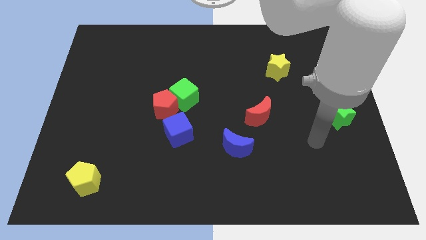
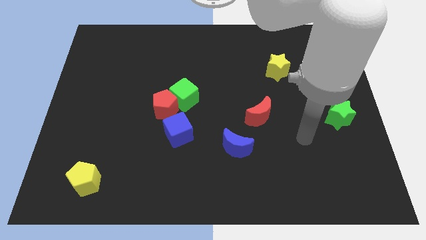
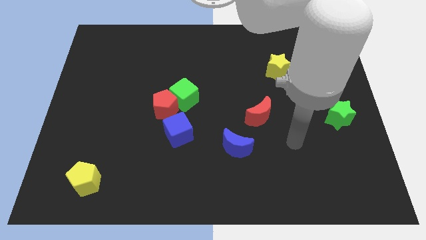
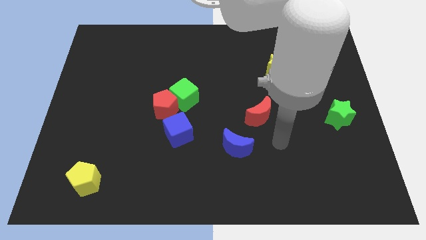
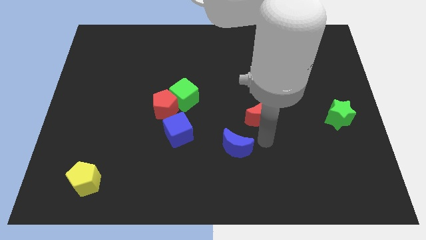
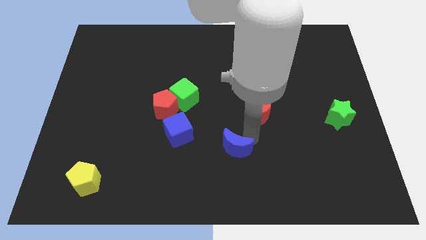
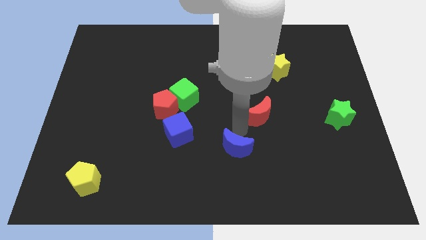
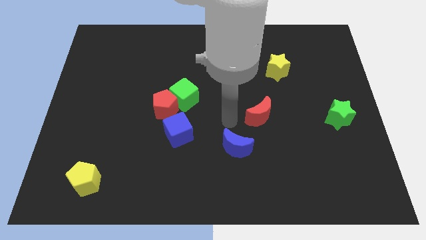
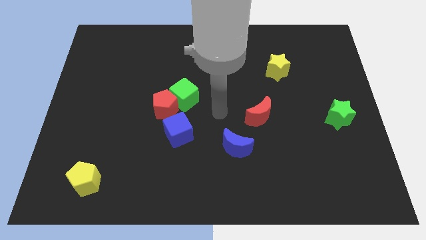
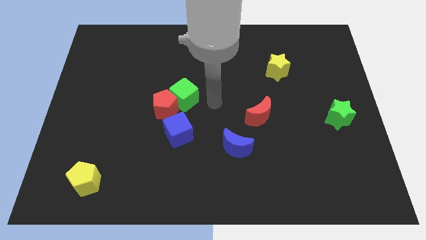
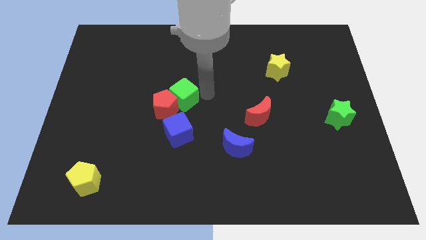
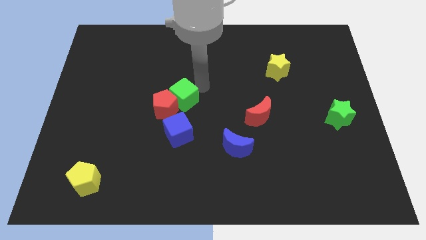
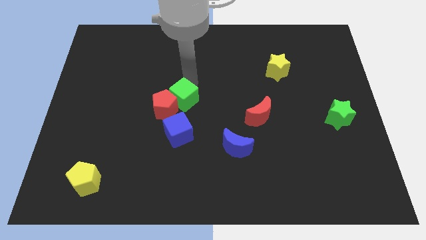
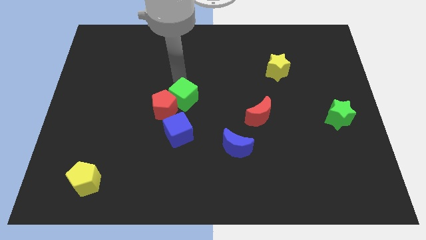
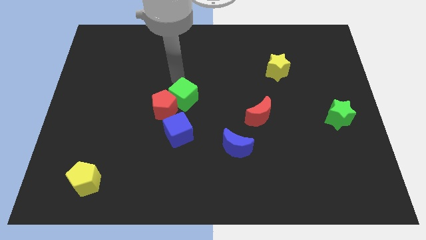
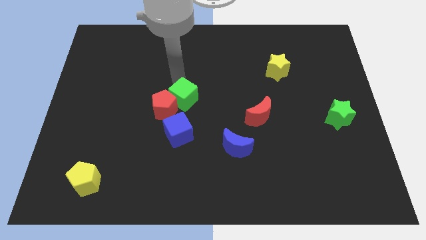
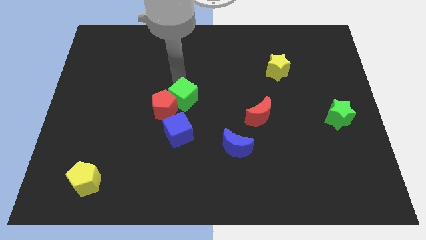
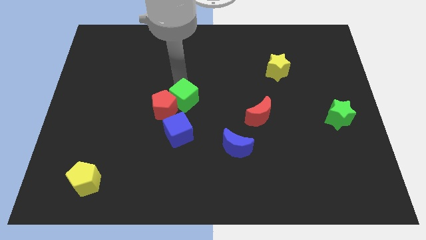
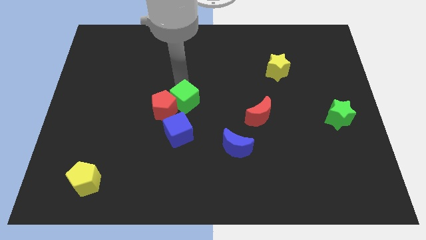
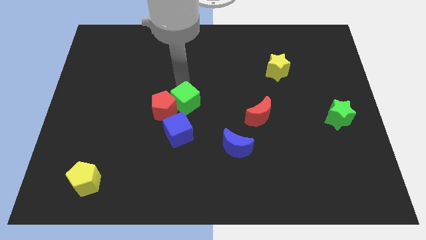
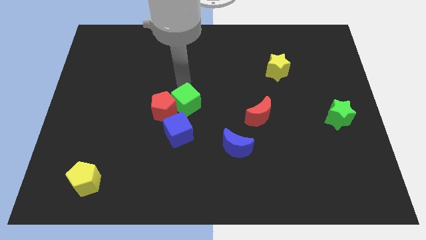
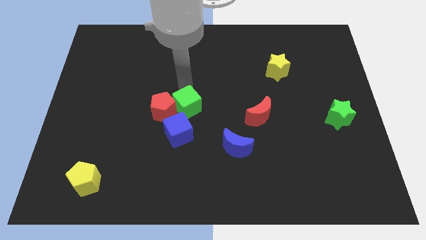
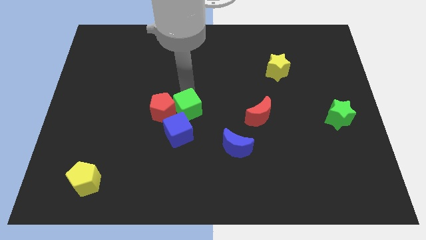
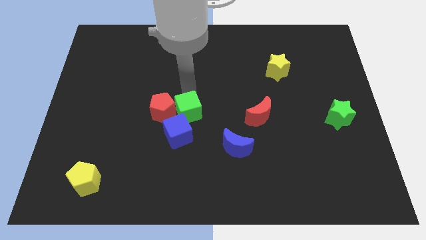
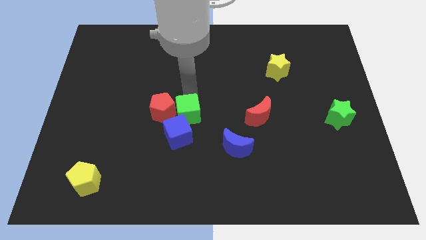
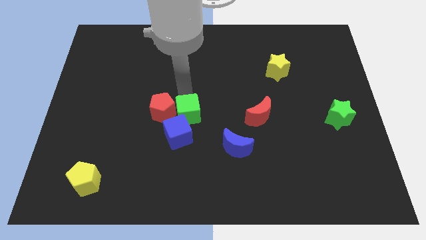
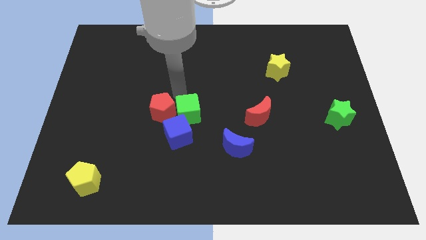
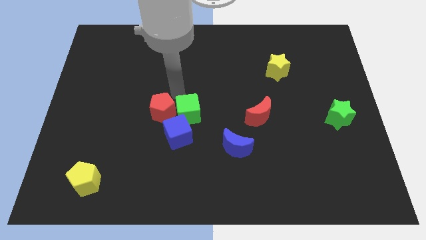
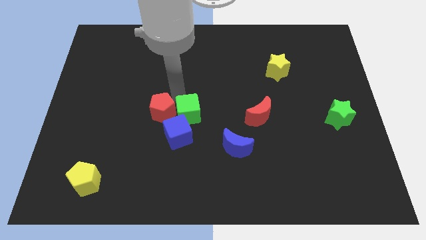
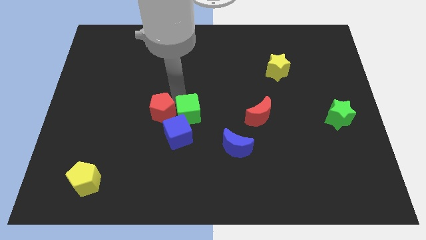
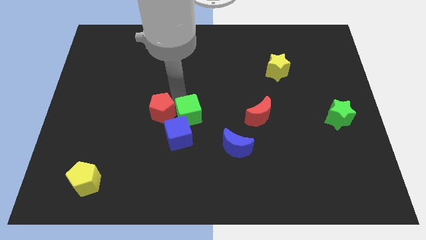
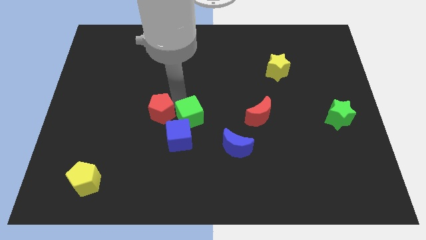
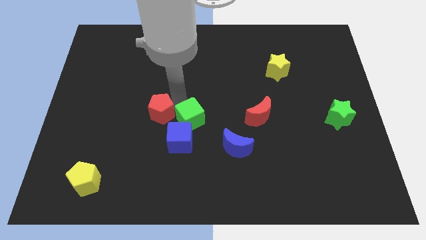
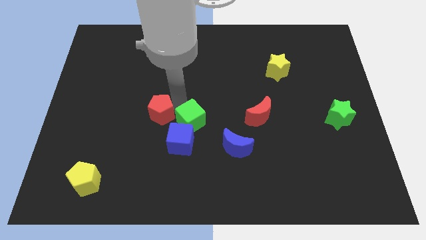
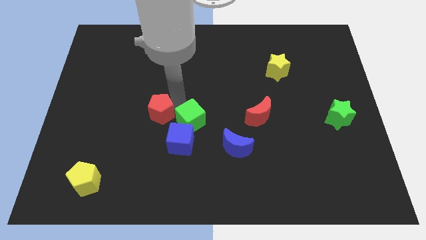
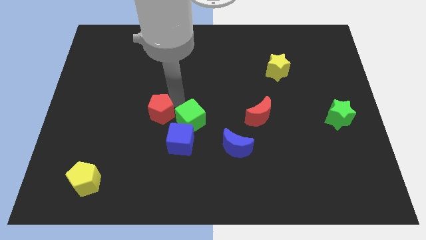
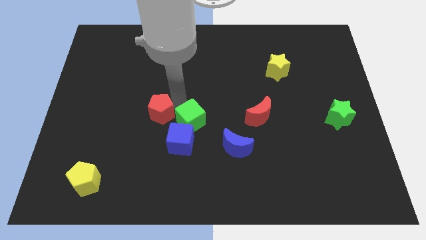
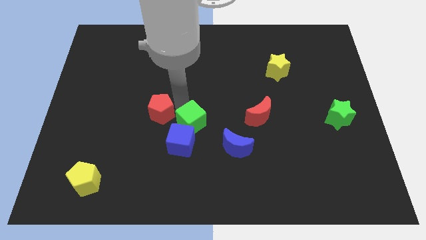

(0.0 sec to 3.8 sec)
push the green cube down a bit

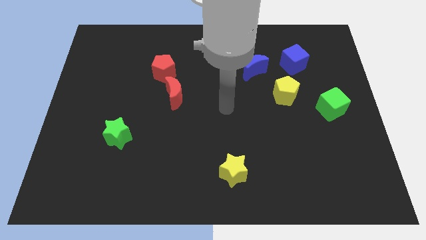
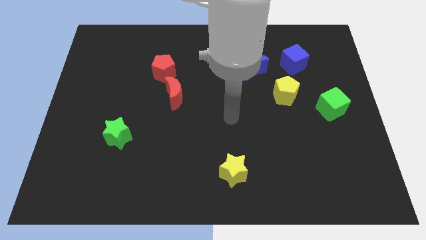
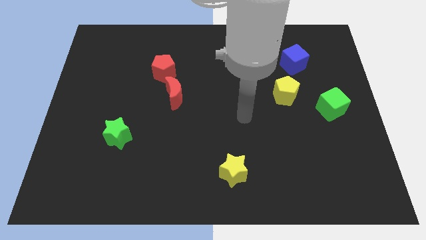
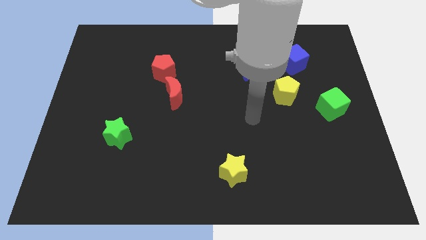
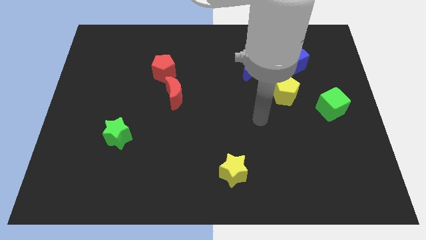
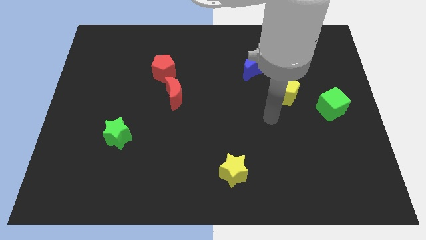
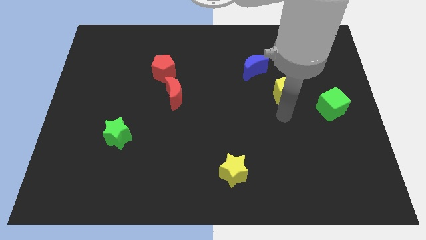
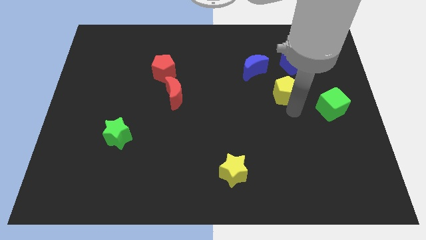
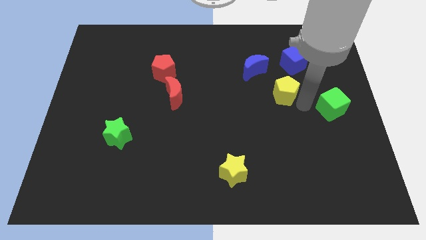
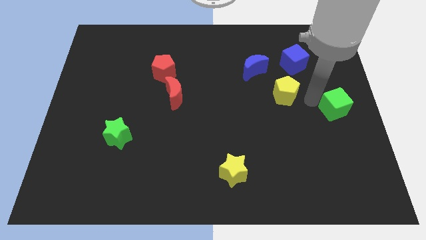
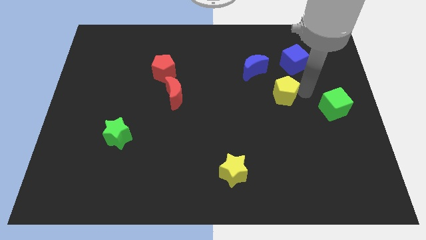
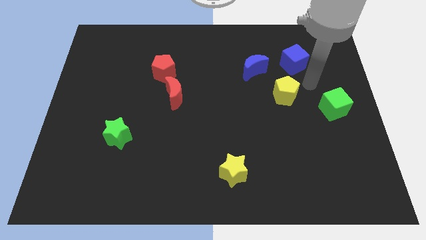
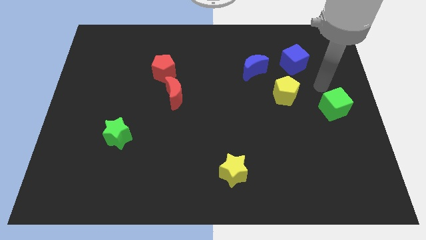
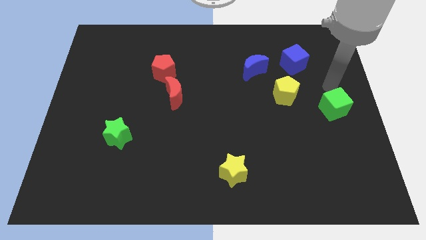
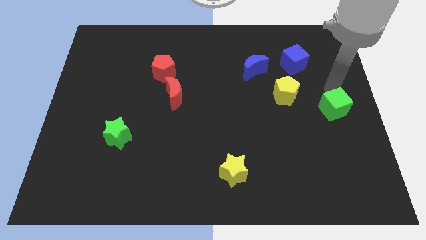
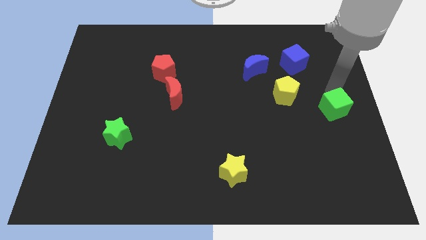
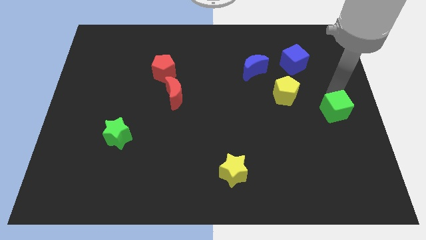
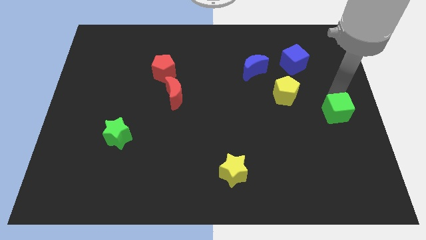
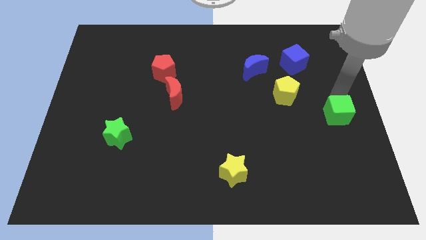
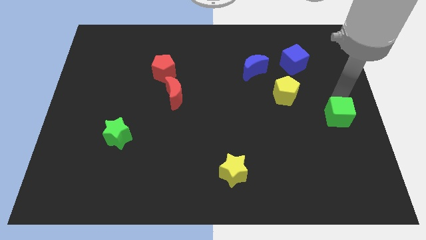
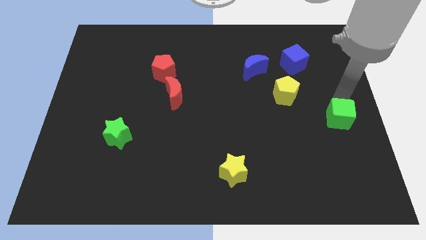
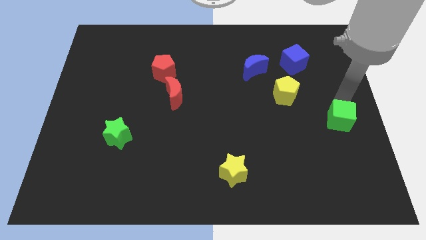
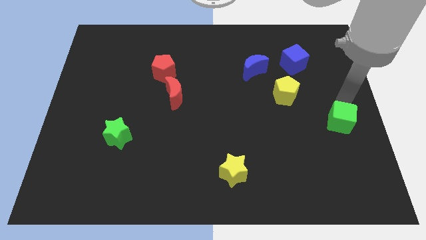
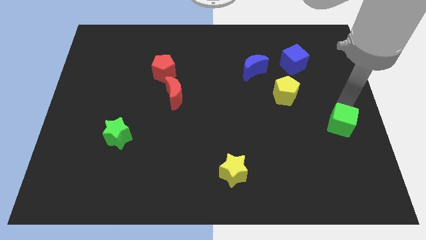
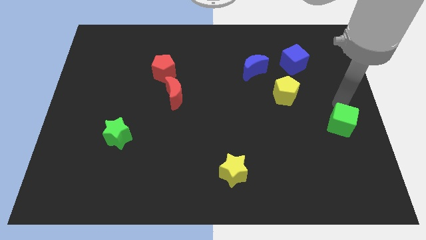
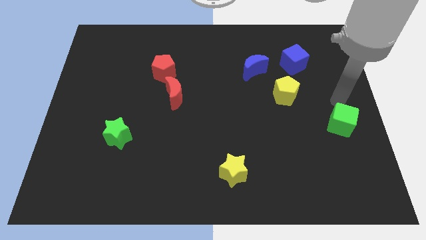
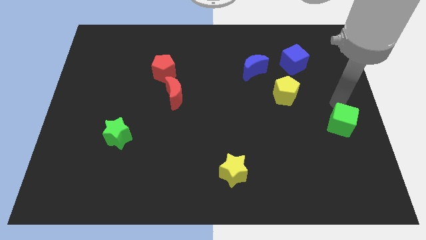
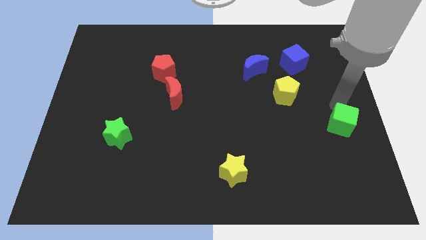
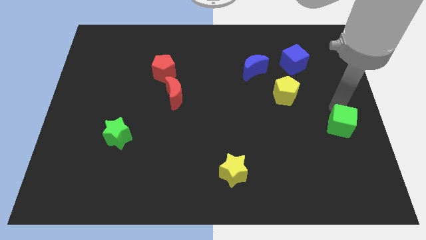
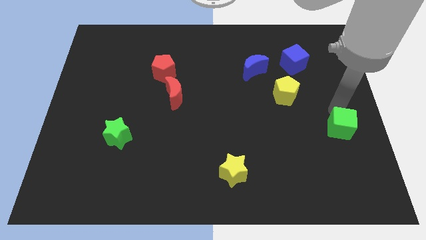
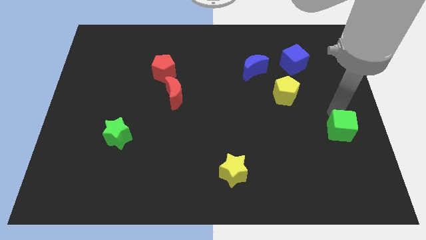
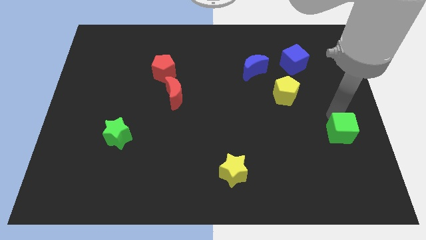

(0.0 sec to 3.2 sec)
slide the green cube downwards somewhat

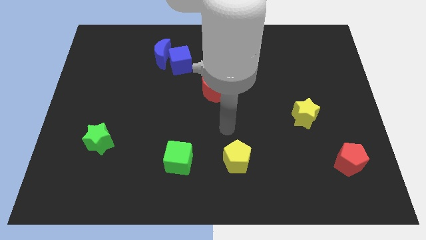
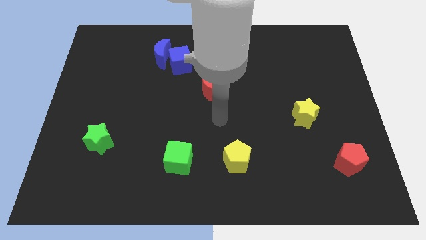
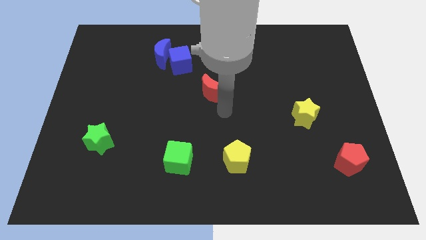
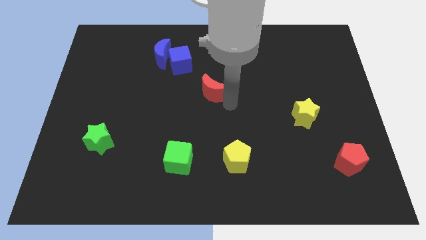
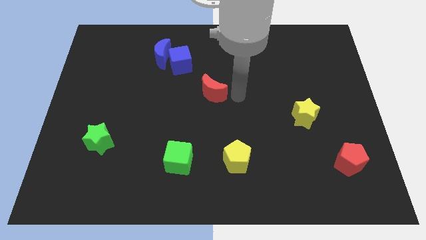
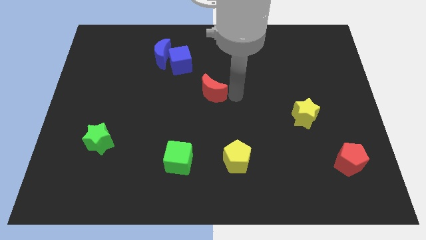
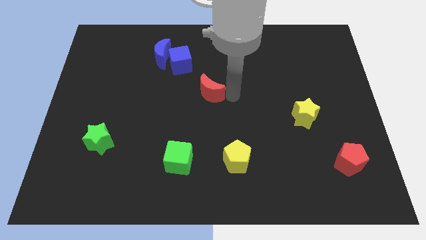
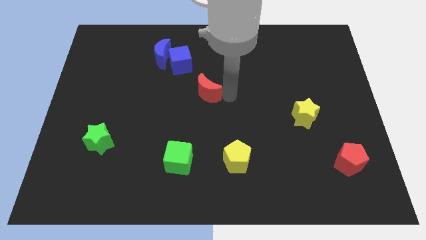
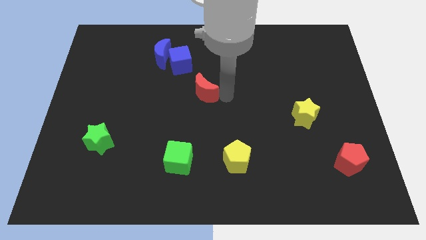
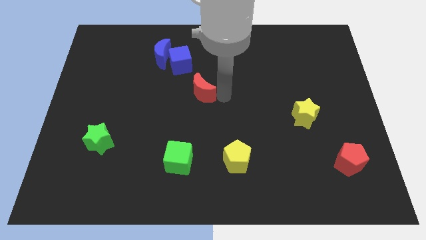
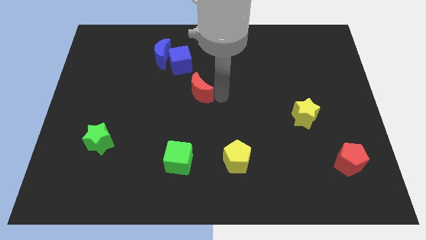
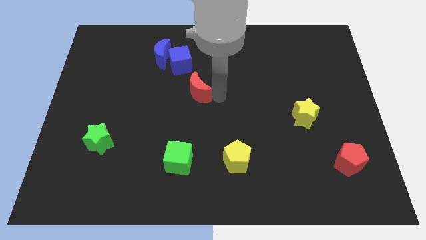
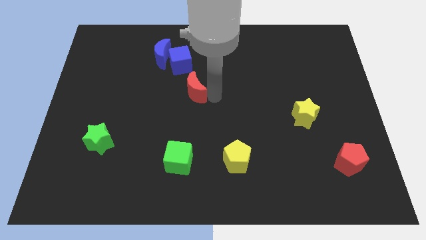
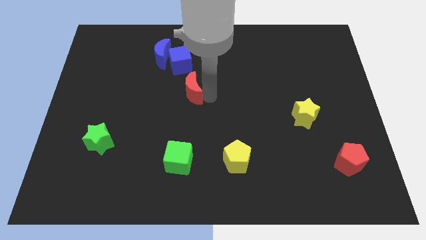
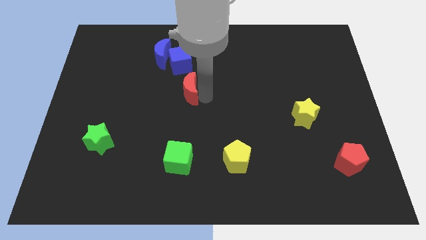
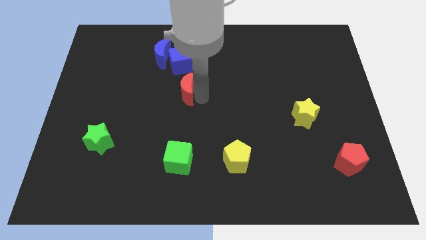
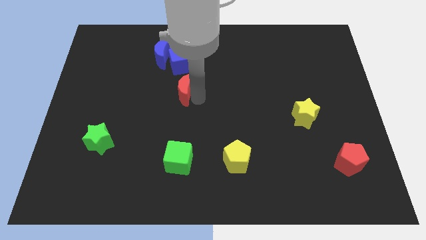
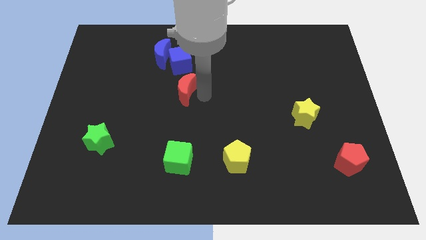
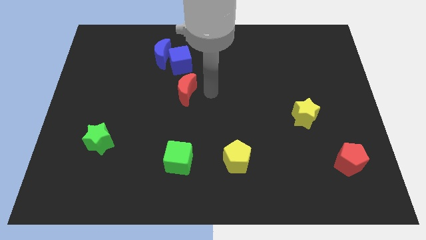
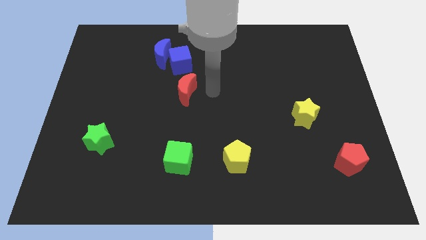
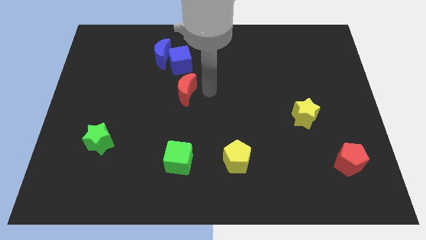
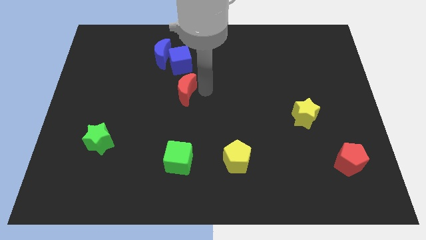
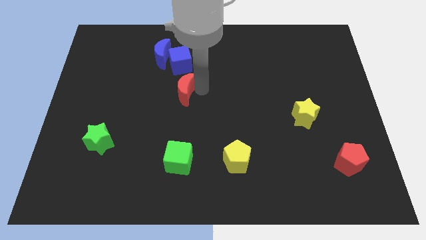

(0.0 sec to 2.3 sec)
slightly move the red moon to the left
